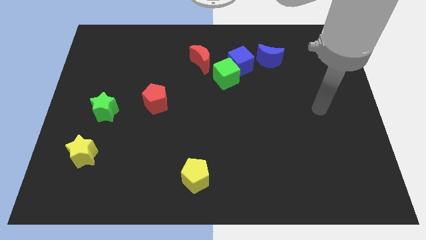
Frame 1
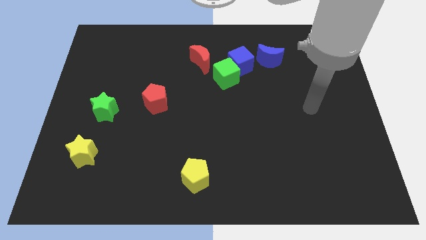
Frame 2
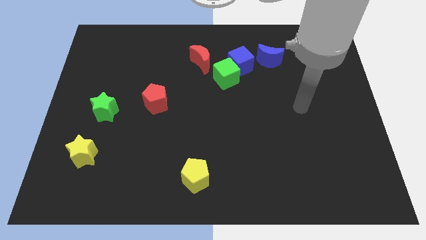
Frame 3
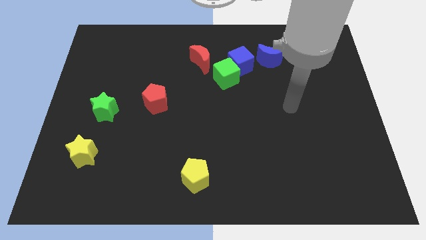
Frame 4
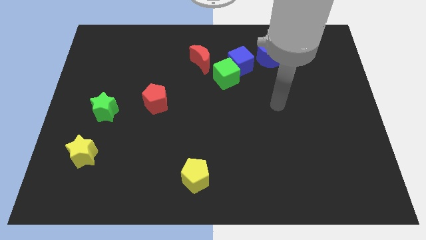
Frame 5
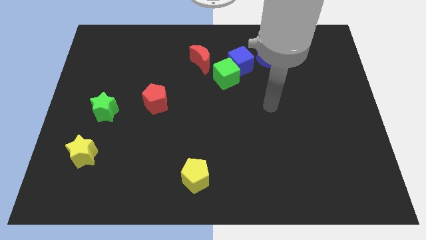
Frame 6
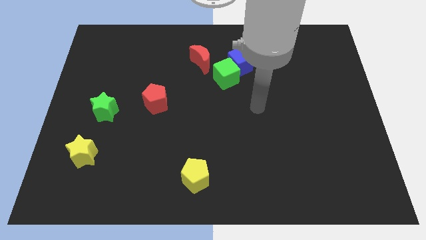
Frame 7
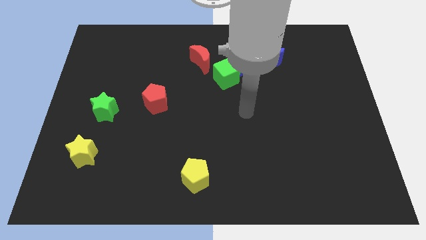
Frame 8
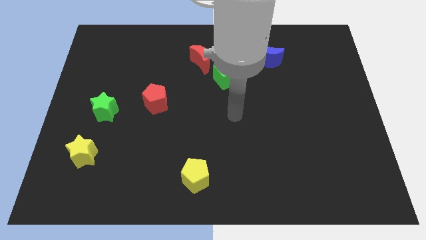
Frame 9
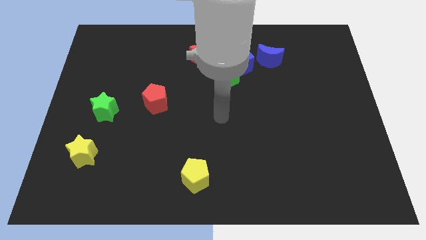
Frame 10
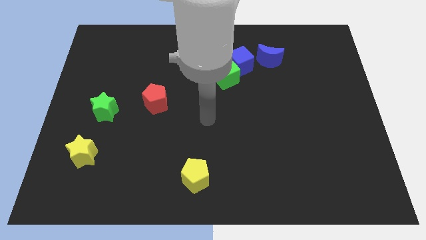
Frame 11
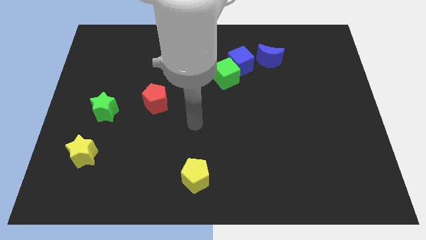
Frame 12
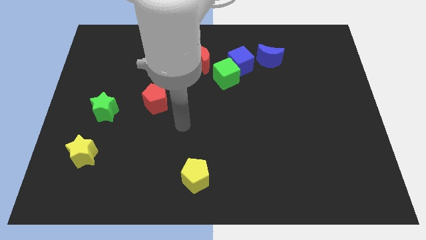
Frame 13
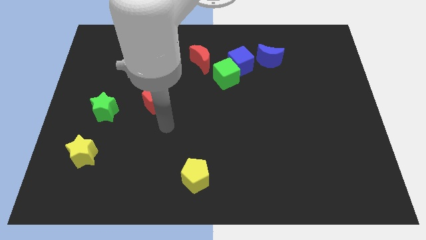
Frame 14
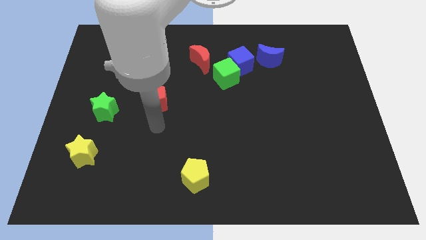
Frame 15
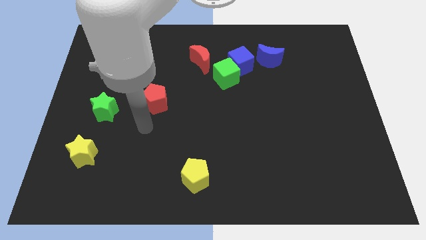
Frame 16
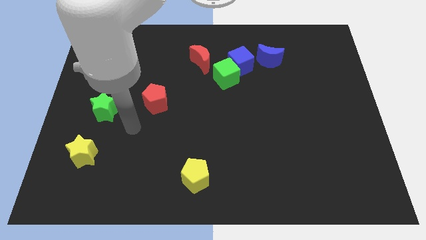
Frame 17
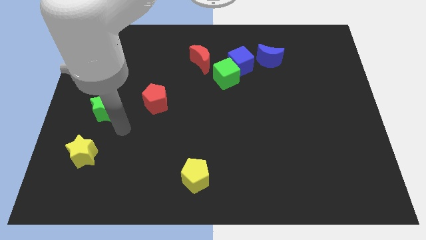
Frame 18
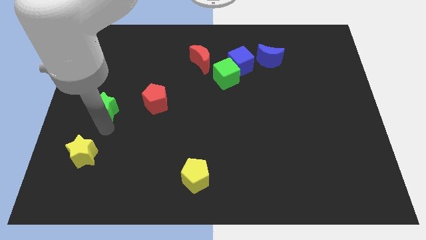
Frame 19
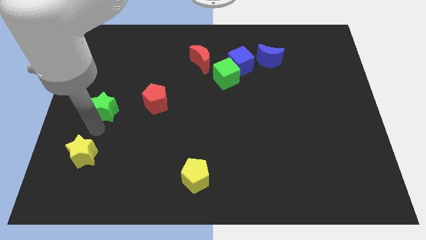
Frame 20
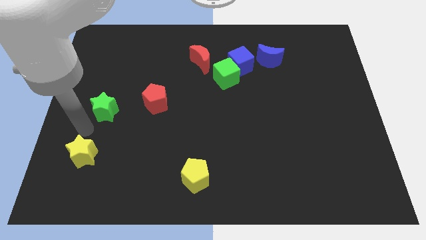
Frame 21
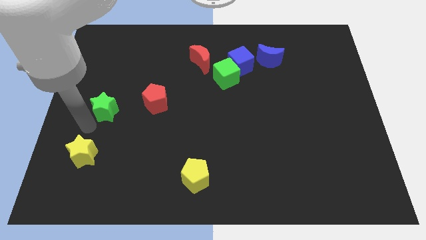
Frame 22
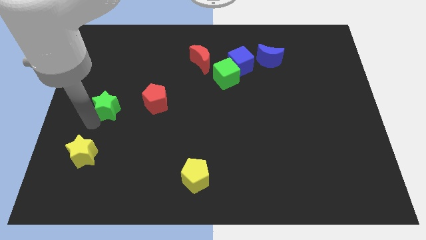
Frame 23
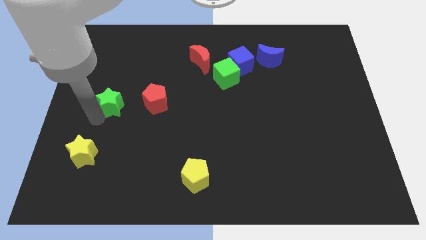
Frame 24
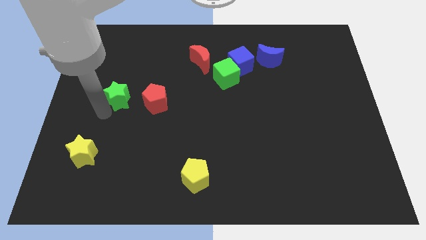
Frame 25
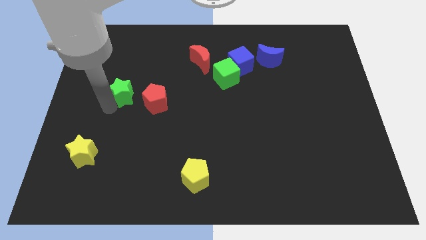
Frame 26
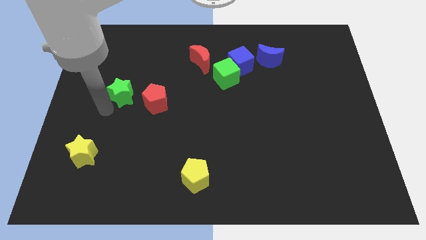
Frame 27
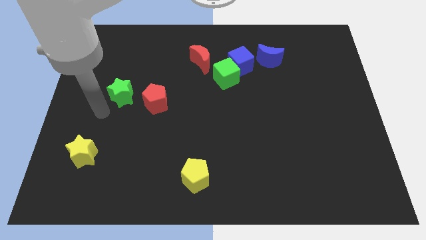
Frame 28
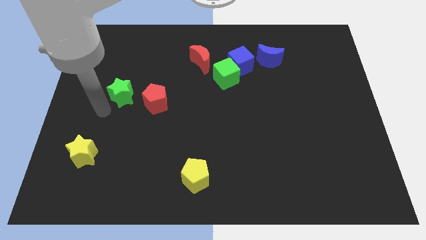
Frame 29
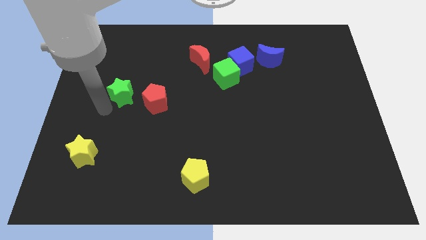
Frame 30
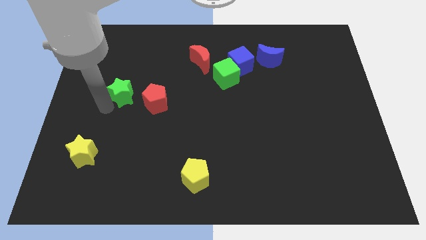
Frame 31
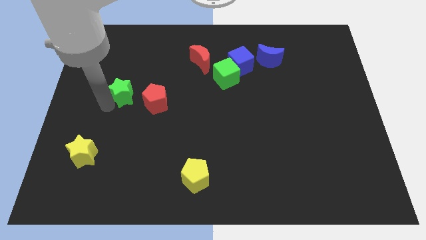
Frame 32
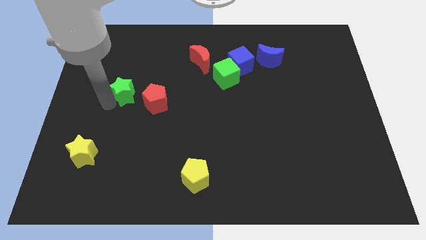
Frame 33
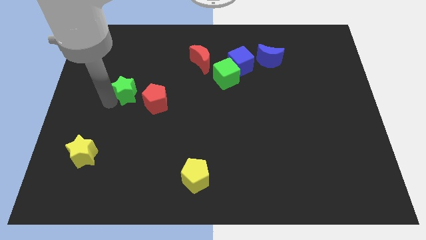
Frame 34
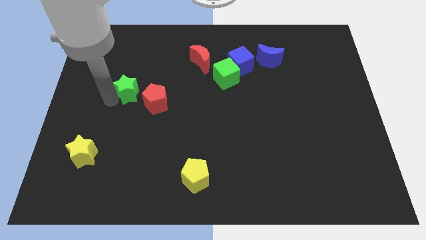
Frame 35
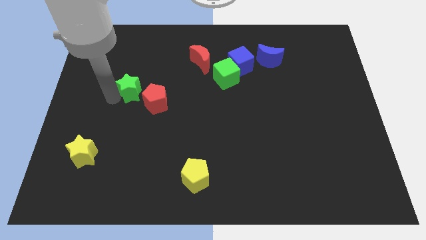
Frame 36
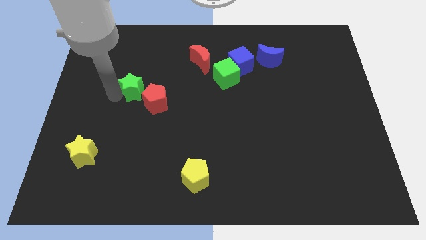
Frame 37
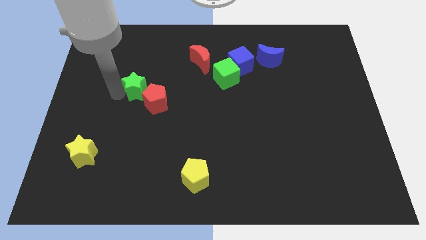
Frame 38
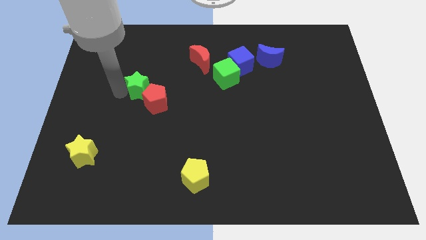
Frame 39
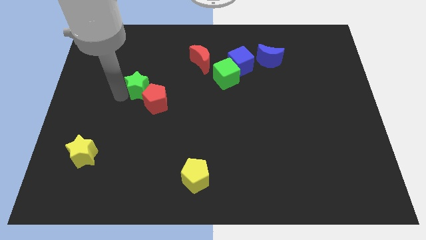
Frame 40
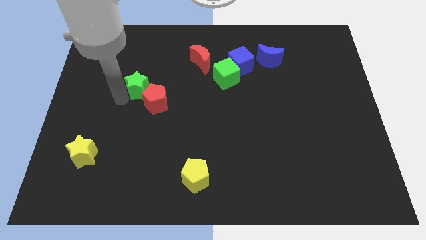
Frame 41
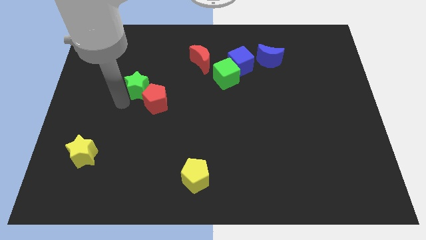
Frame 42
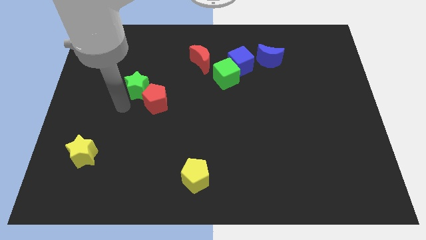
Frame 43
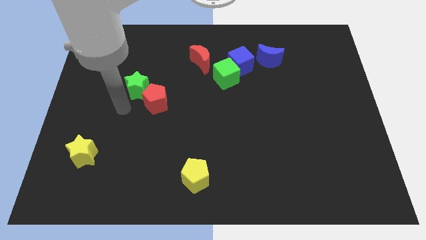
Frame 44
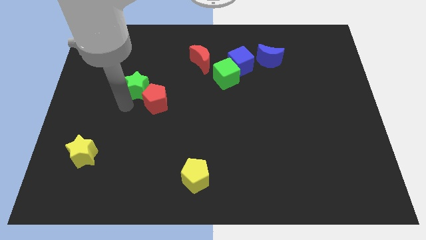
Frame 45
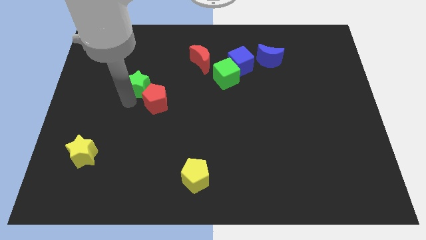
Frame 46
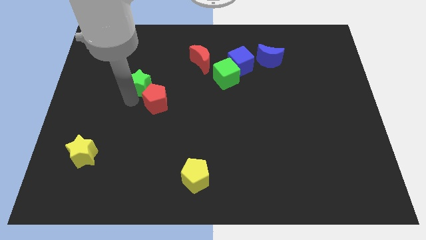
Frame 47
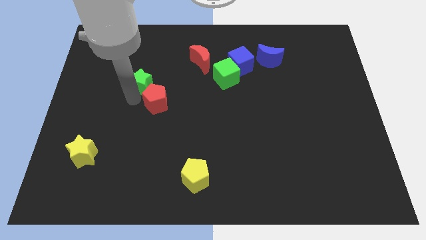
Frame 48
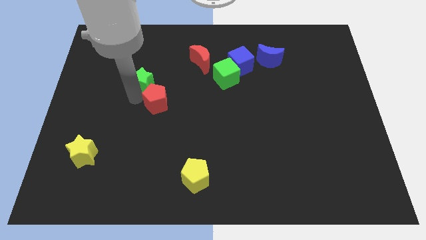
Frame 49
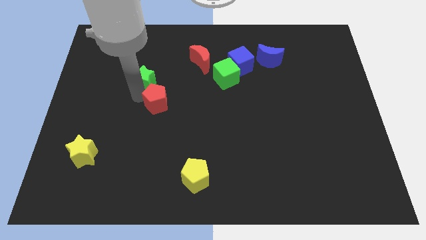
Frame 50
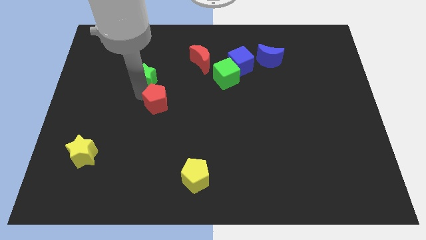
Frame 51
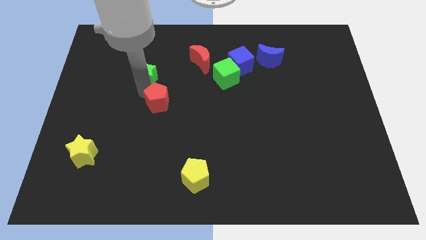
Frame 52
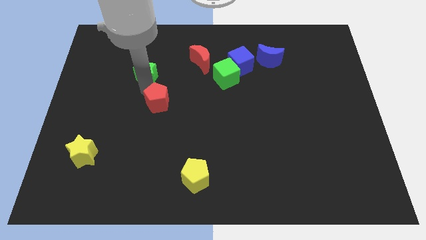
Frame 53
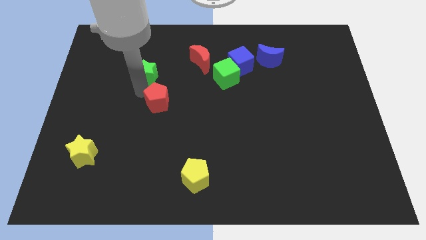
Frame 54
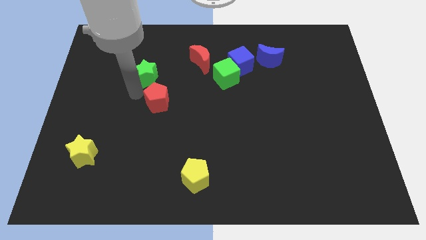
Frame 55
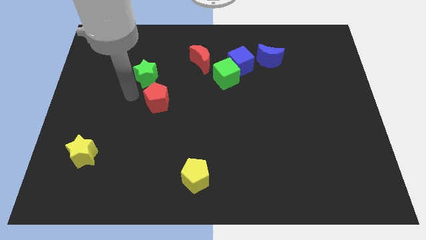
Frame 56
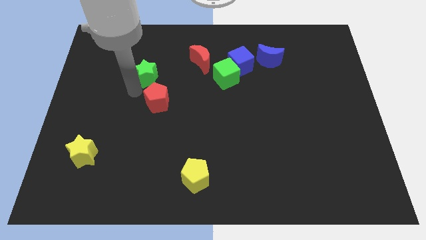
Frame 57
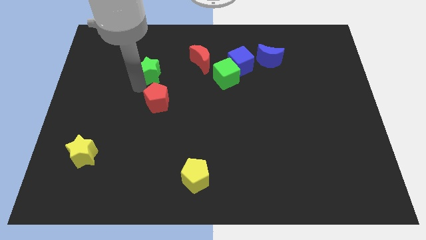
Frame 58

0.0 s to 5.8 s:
put the green star to the left side of the red moon

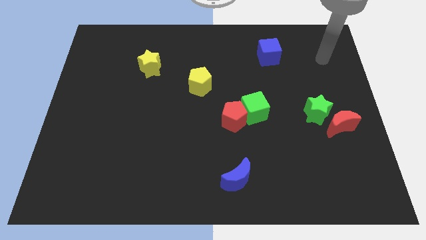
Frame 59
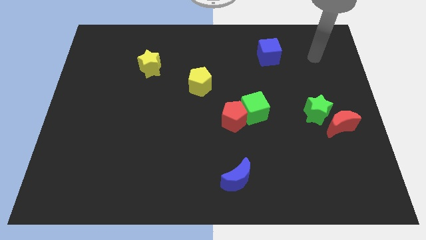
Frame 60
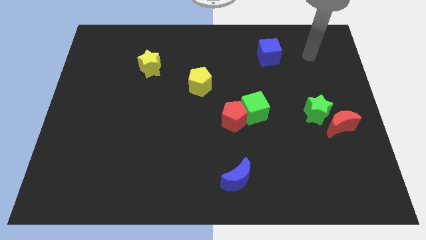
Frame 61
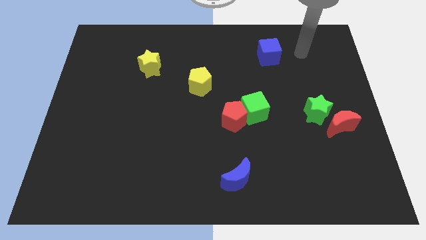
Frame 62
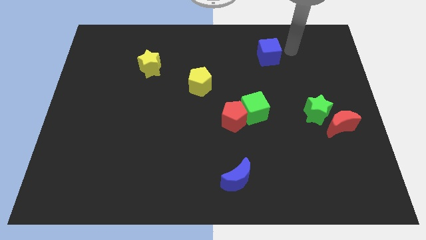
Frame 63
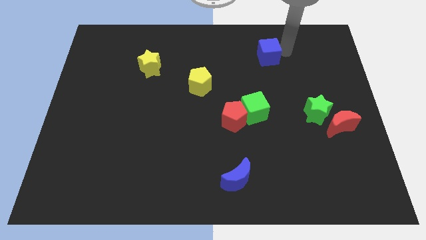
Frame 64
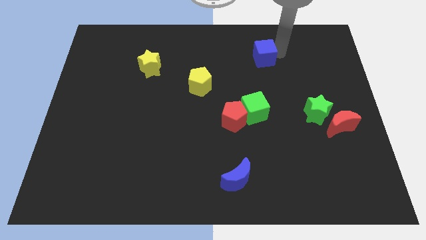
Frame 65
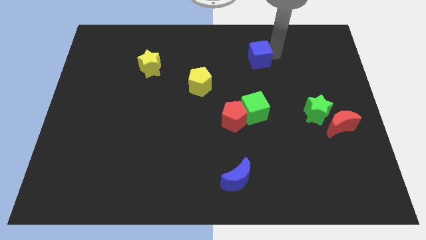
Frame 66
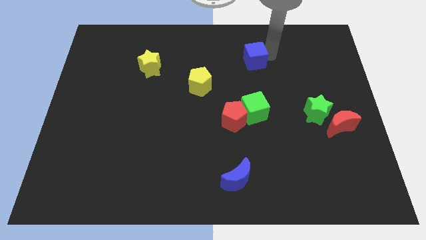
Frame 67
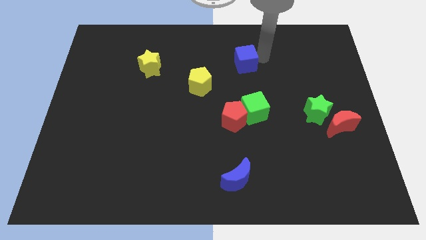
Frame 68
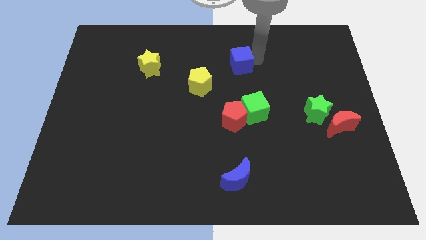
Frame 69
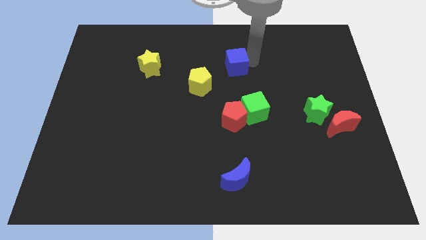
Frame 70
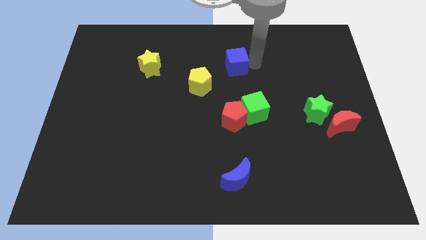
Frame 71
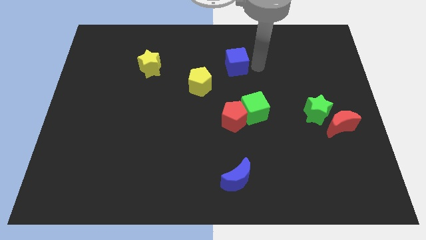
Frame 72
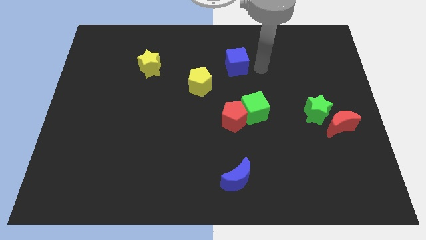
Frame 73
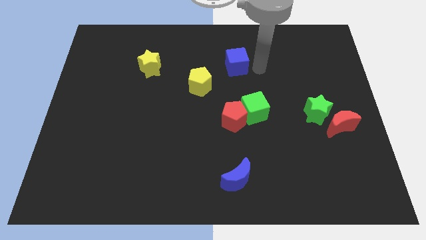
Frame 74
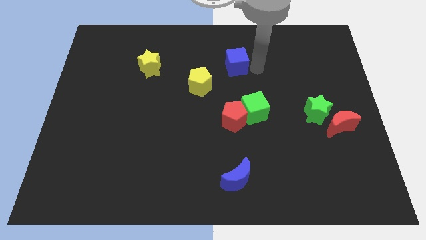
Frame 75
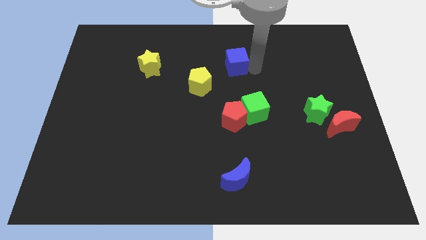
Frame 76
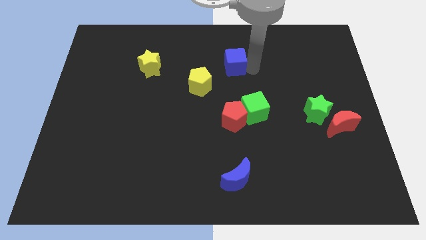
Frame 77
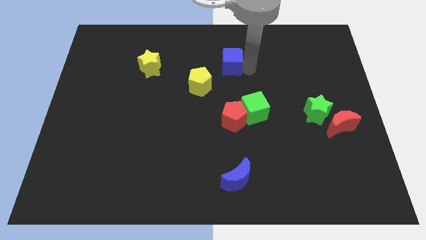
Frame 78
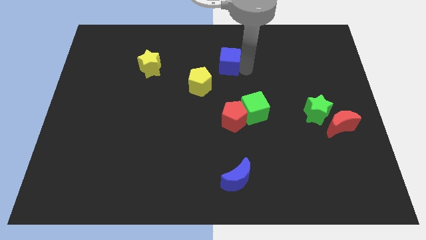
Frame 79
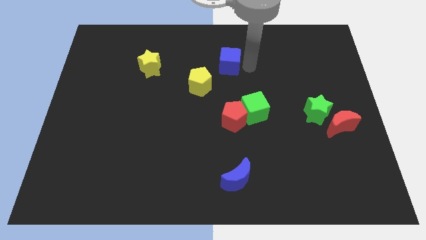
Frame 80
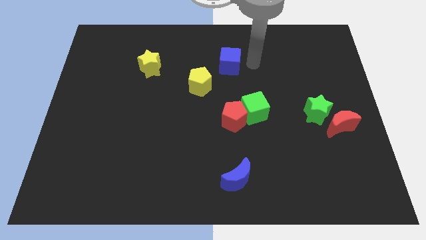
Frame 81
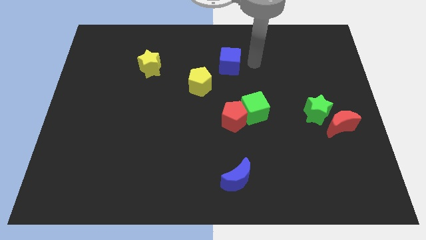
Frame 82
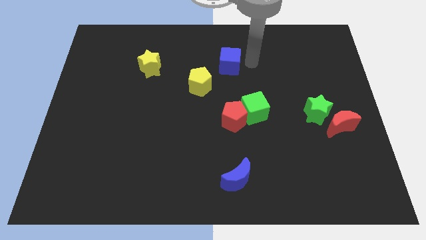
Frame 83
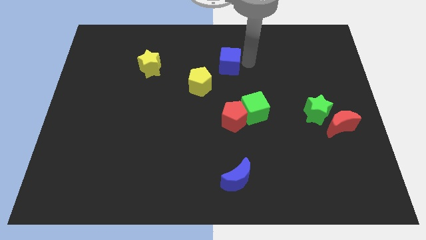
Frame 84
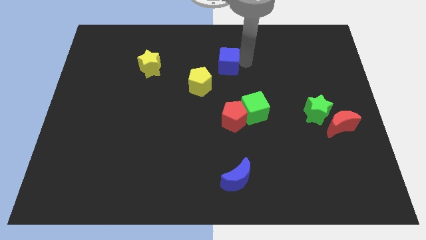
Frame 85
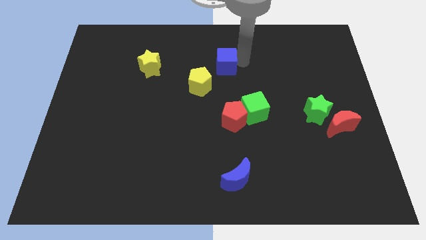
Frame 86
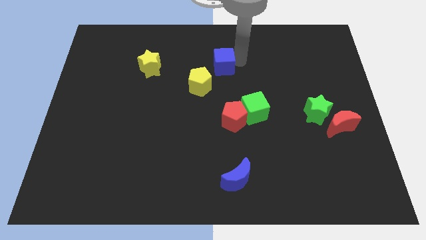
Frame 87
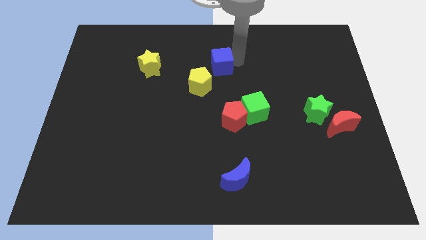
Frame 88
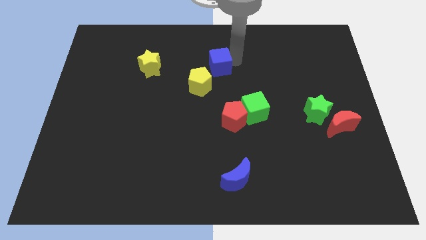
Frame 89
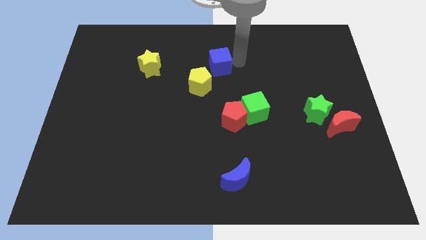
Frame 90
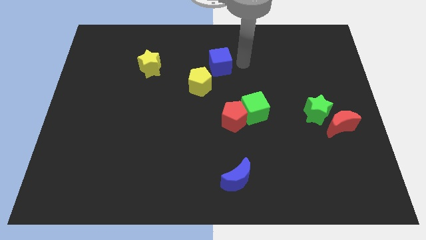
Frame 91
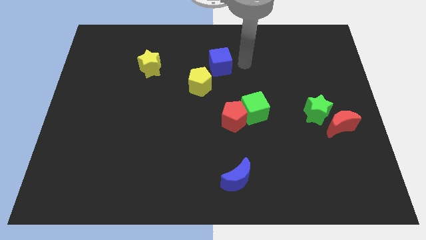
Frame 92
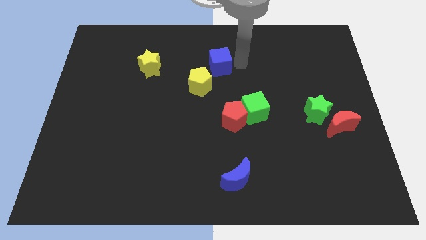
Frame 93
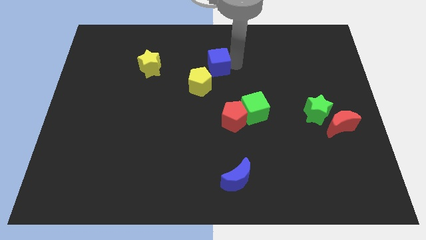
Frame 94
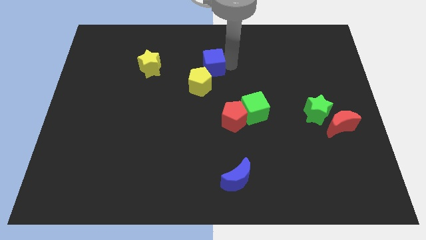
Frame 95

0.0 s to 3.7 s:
slide the blue cube to the right side of the yellow star
